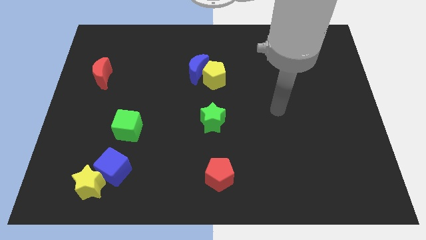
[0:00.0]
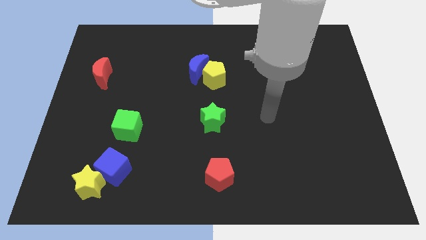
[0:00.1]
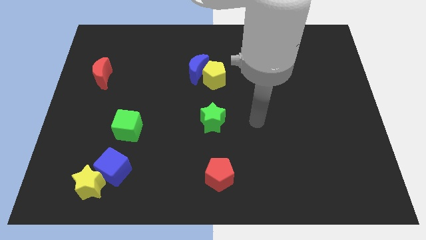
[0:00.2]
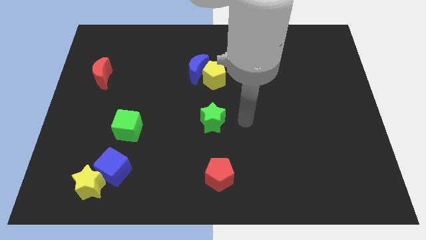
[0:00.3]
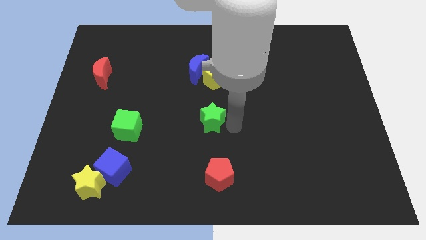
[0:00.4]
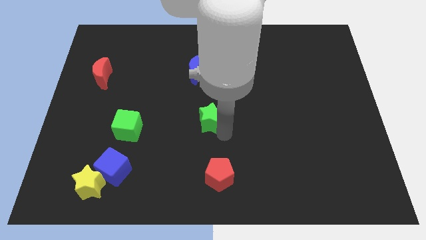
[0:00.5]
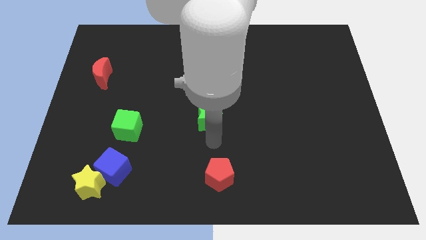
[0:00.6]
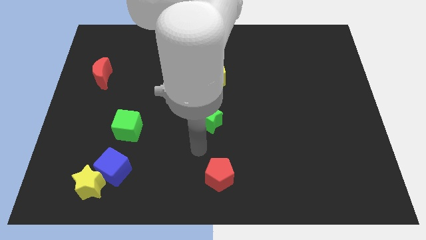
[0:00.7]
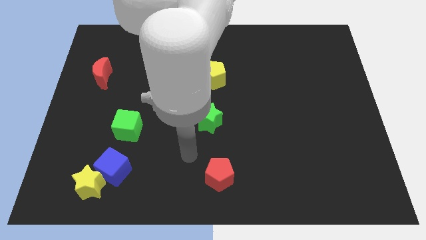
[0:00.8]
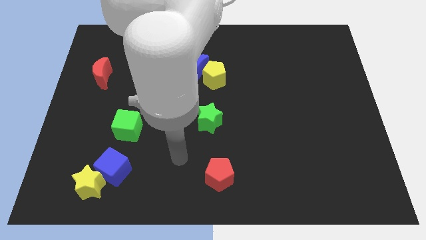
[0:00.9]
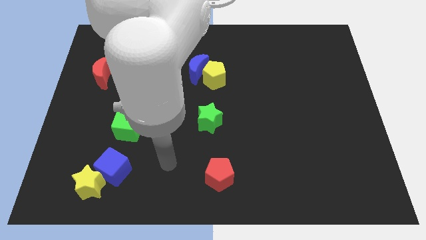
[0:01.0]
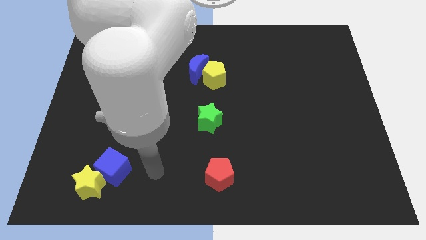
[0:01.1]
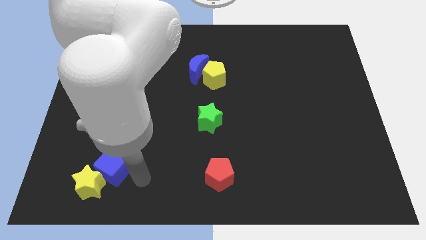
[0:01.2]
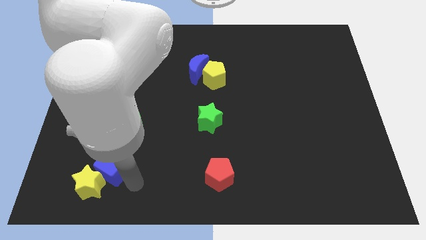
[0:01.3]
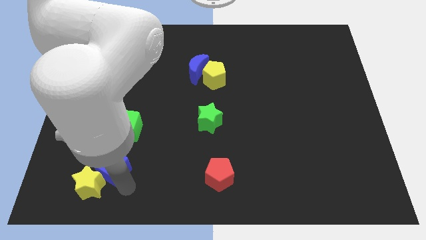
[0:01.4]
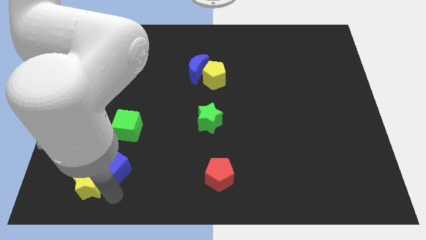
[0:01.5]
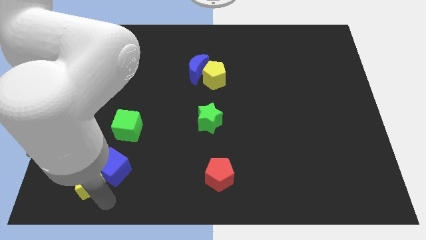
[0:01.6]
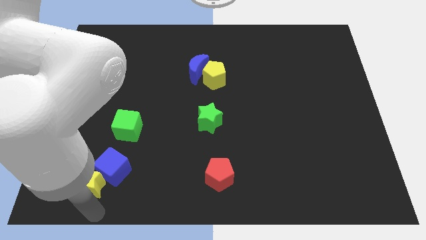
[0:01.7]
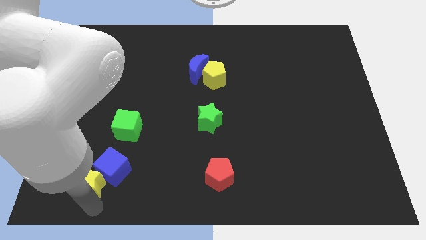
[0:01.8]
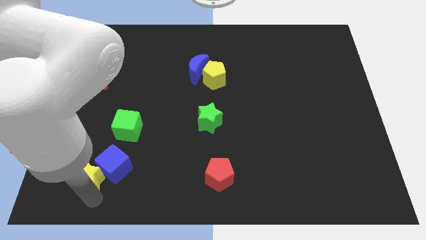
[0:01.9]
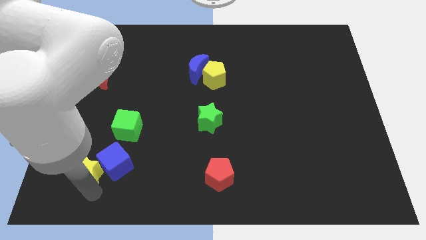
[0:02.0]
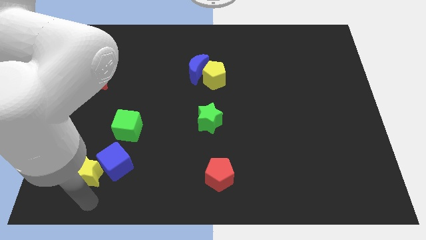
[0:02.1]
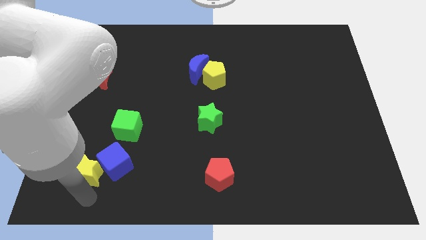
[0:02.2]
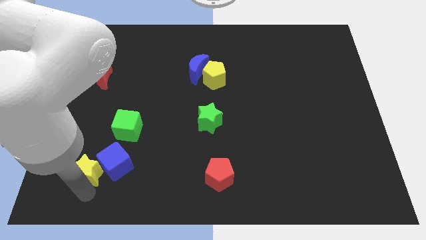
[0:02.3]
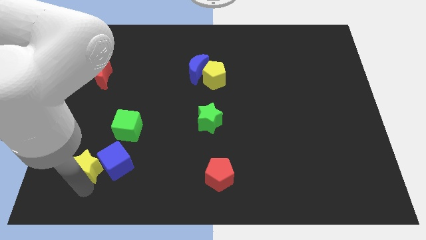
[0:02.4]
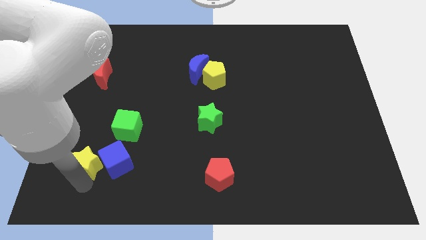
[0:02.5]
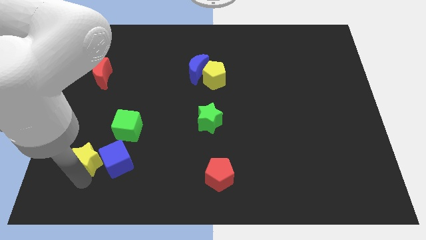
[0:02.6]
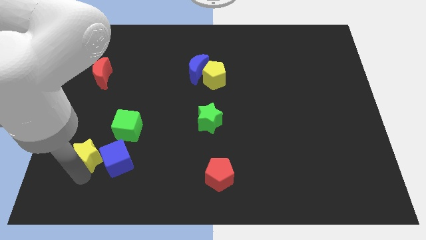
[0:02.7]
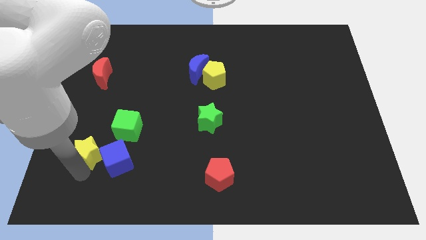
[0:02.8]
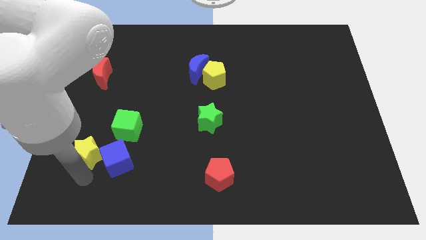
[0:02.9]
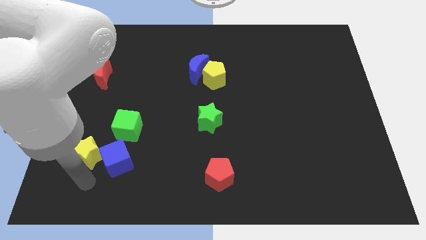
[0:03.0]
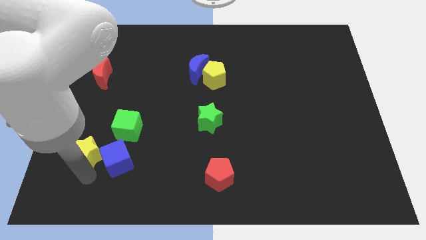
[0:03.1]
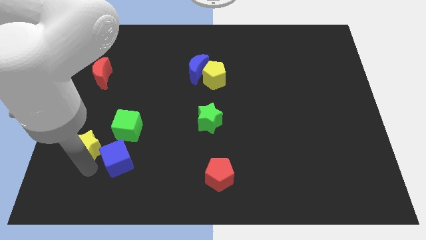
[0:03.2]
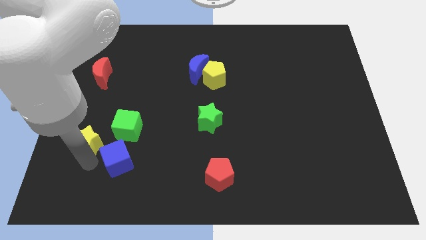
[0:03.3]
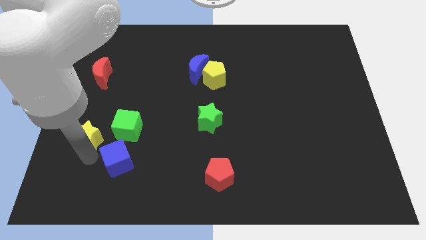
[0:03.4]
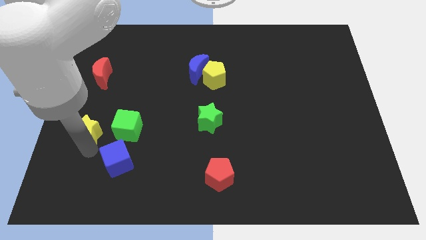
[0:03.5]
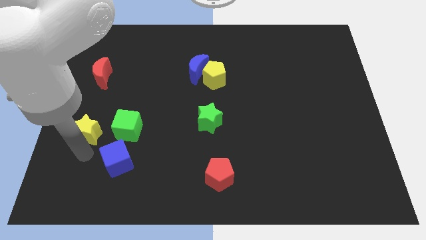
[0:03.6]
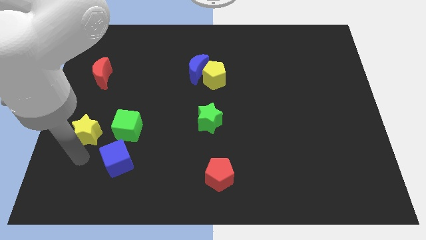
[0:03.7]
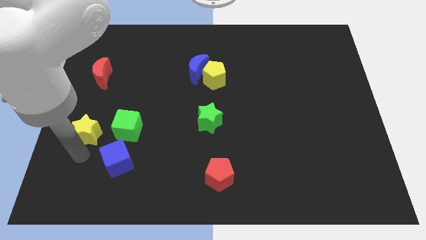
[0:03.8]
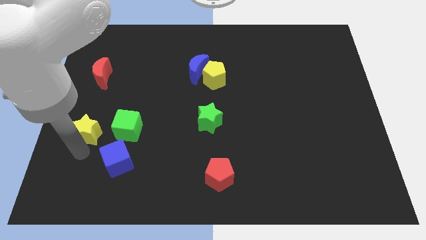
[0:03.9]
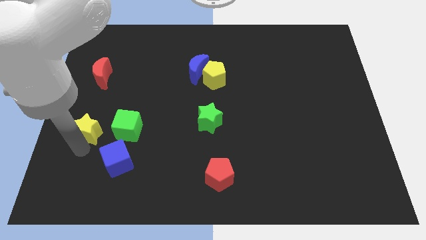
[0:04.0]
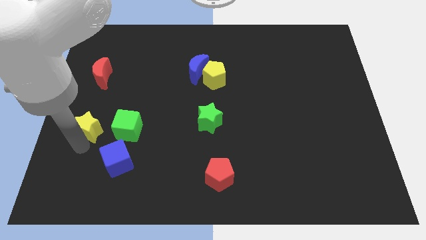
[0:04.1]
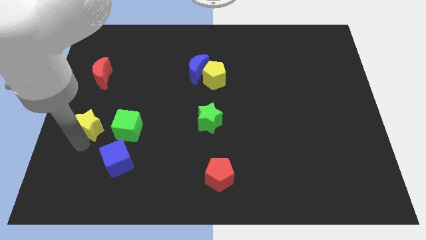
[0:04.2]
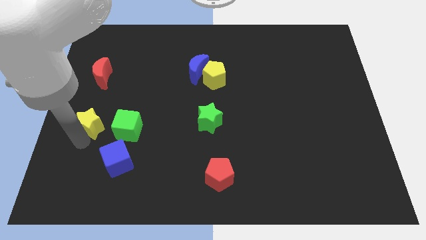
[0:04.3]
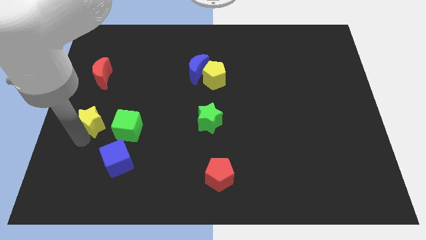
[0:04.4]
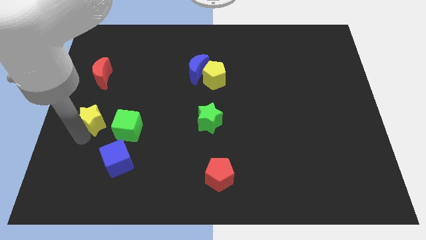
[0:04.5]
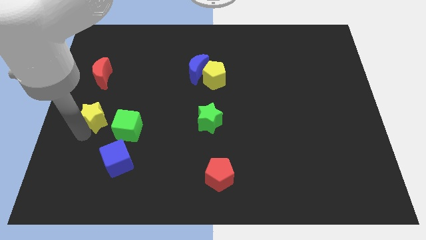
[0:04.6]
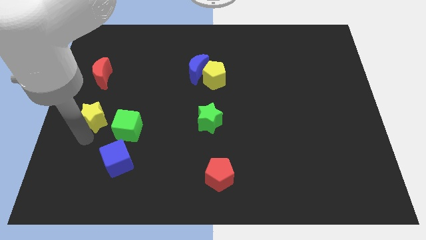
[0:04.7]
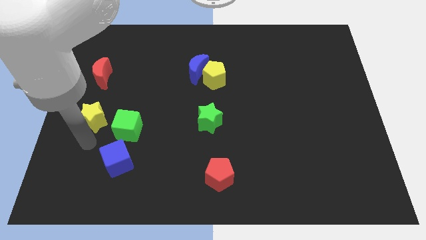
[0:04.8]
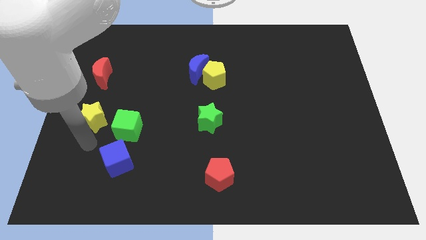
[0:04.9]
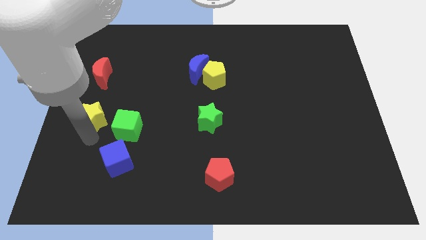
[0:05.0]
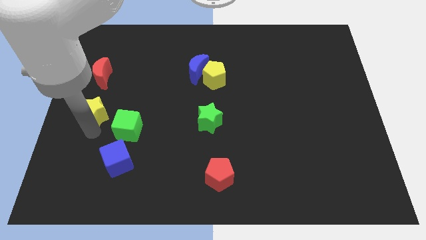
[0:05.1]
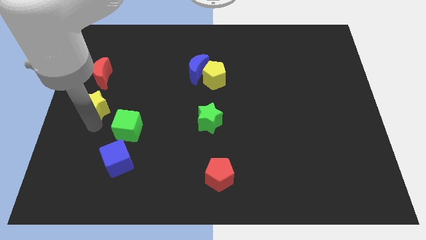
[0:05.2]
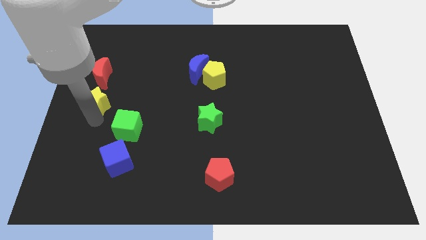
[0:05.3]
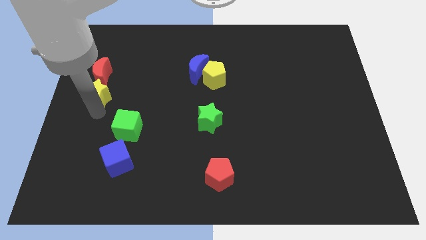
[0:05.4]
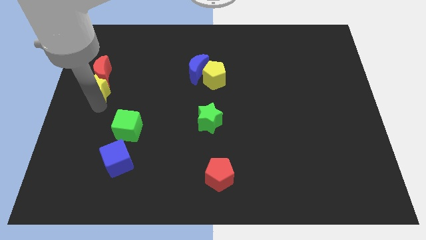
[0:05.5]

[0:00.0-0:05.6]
push the yellow star close to the red moon

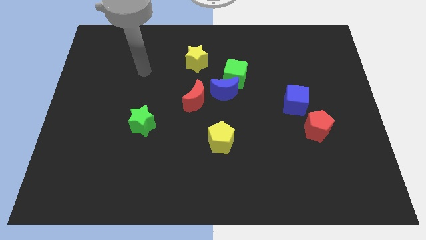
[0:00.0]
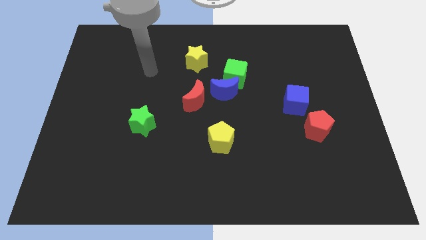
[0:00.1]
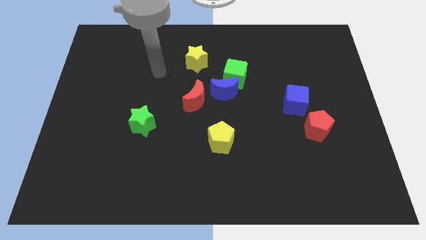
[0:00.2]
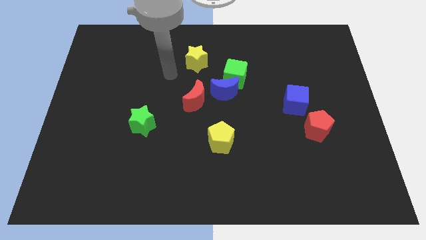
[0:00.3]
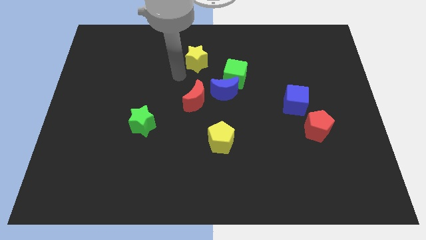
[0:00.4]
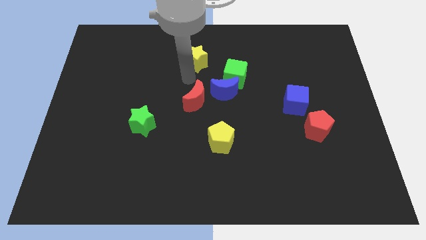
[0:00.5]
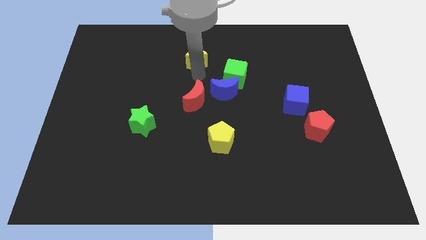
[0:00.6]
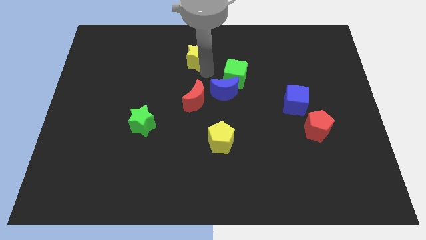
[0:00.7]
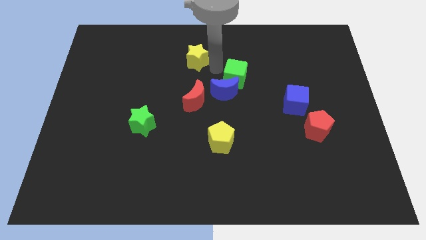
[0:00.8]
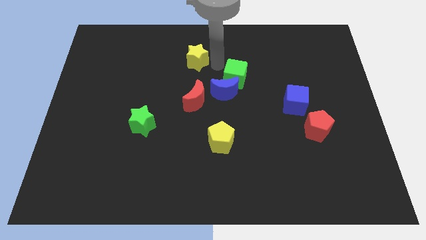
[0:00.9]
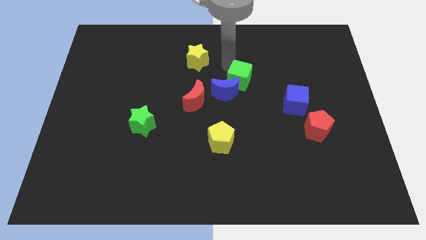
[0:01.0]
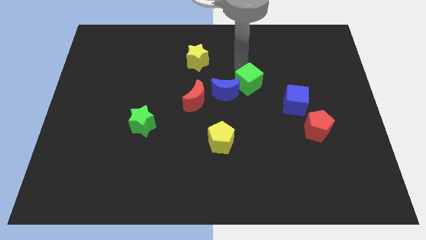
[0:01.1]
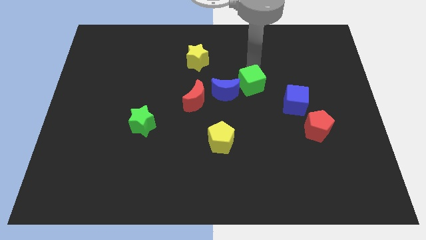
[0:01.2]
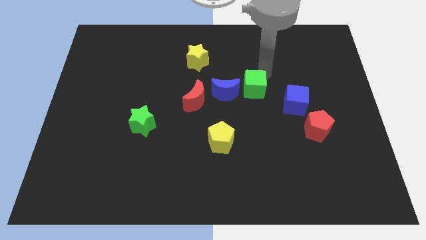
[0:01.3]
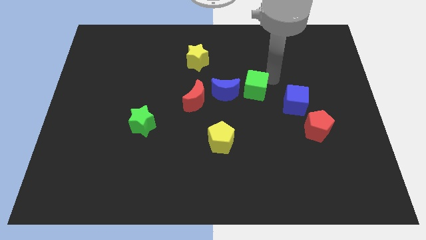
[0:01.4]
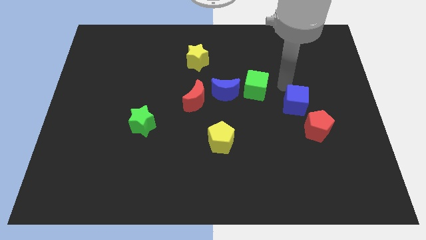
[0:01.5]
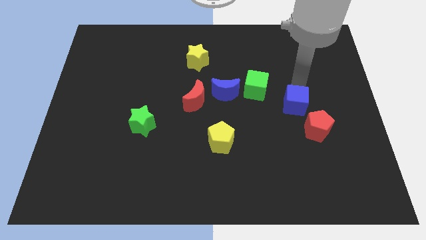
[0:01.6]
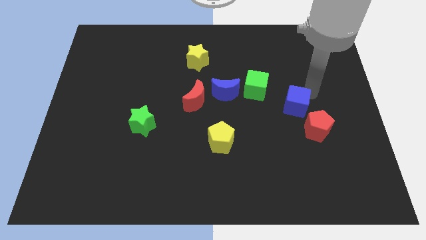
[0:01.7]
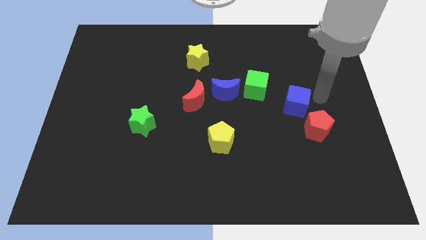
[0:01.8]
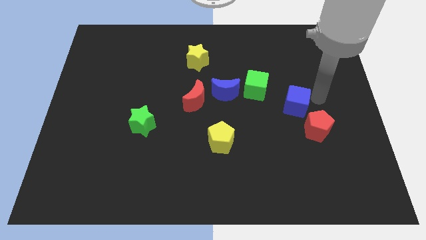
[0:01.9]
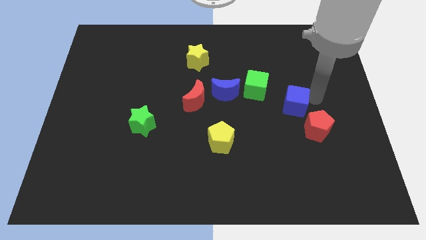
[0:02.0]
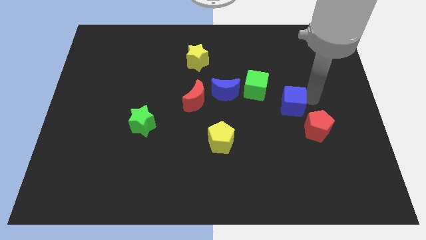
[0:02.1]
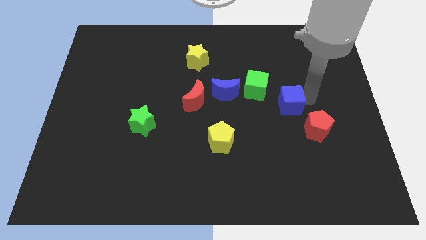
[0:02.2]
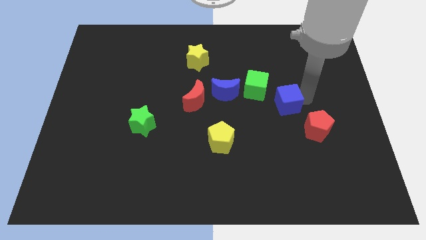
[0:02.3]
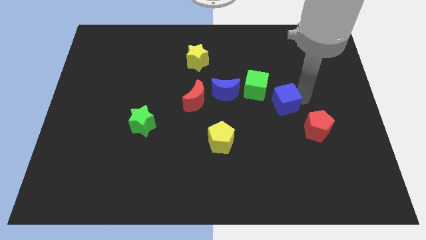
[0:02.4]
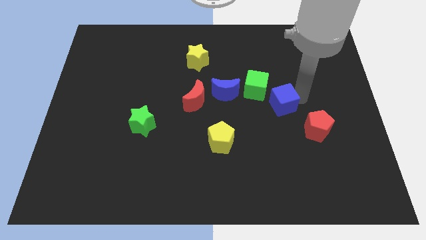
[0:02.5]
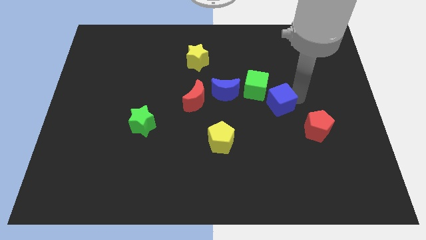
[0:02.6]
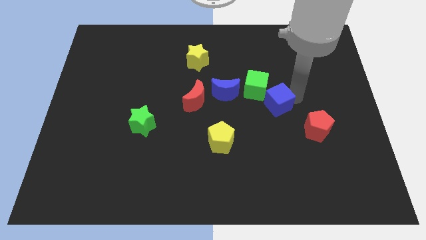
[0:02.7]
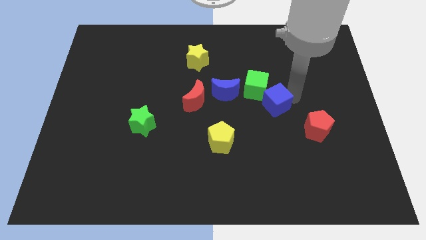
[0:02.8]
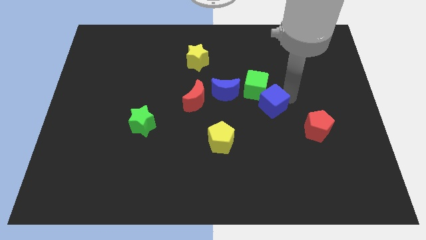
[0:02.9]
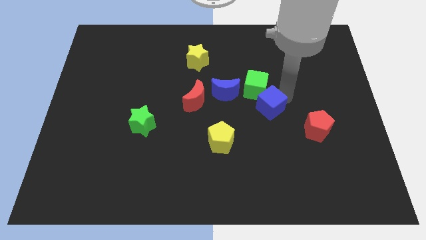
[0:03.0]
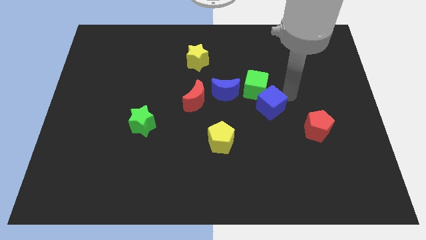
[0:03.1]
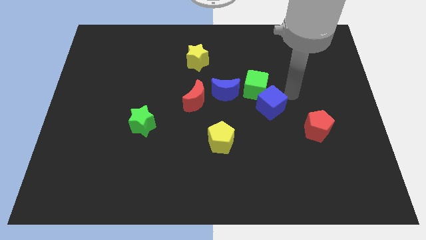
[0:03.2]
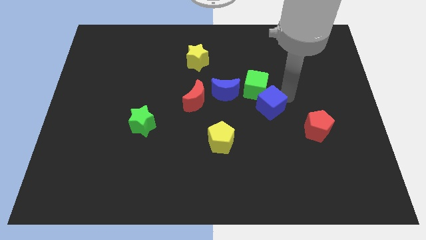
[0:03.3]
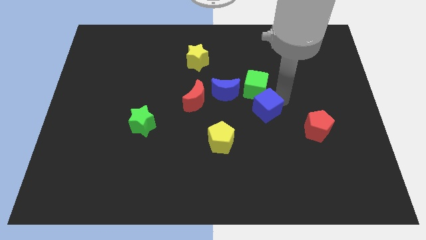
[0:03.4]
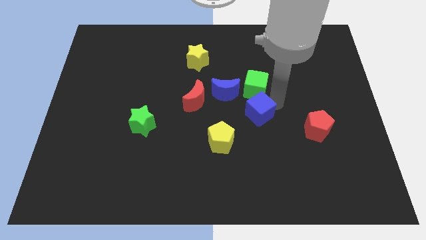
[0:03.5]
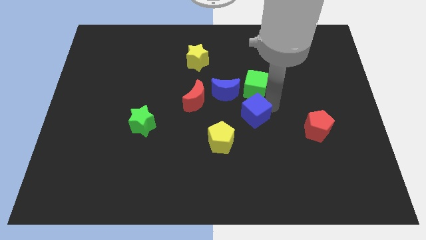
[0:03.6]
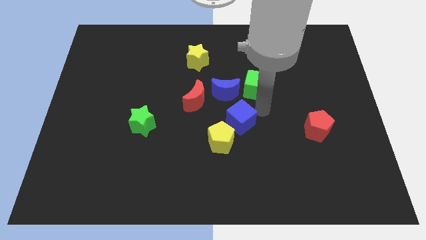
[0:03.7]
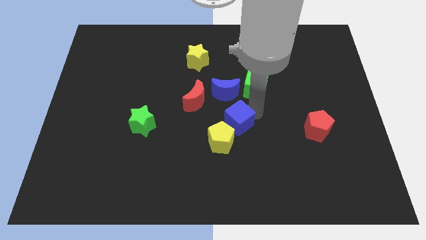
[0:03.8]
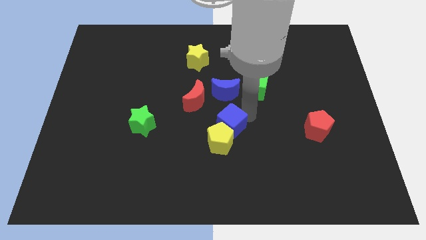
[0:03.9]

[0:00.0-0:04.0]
push the blue cube towards the yellow pentagon
